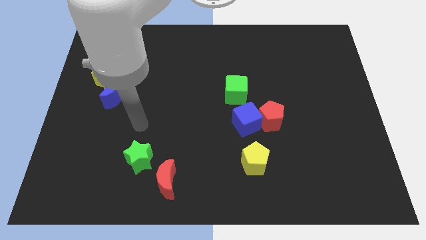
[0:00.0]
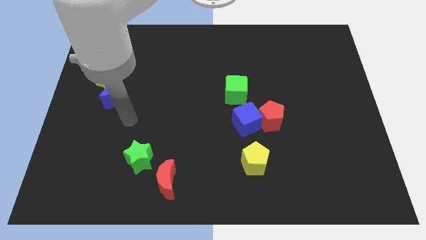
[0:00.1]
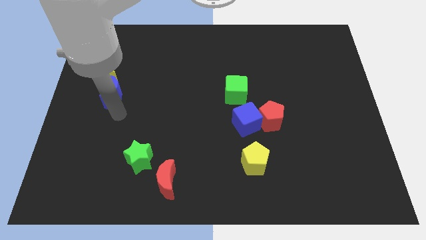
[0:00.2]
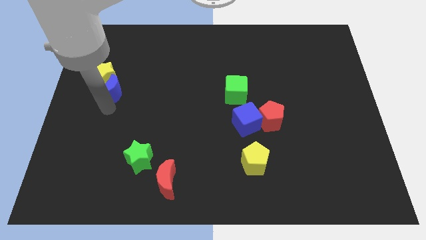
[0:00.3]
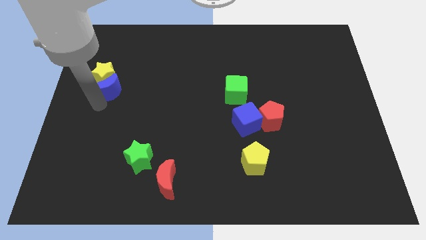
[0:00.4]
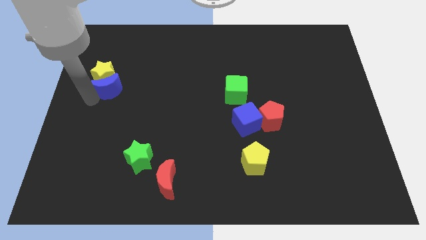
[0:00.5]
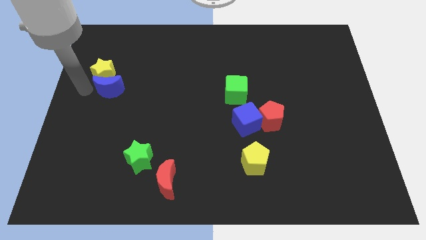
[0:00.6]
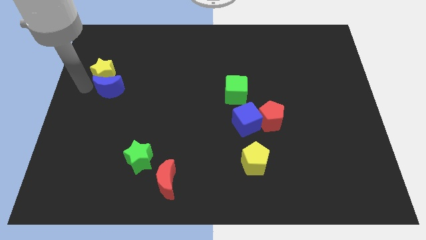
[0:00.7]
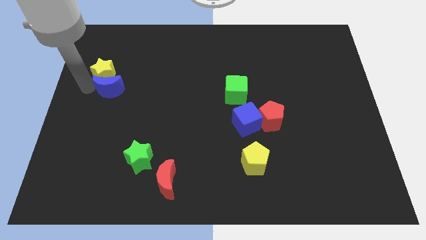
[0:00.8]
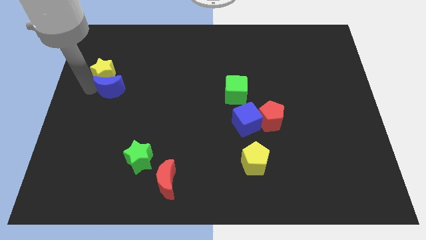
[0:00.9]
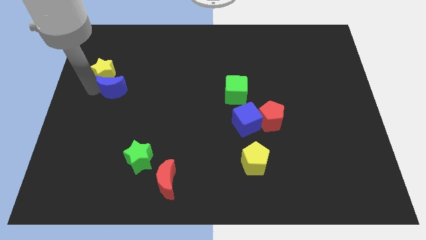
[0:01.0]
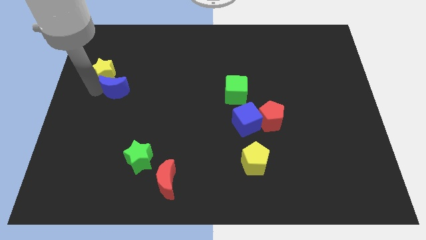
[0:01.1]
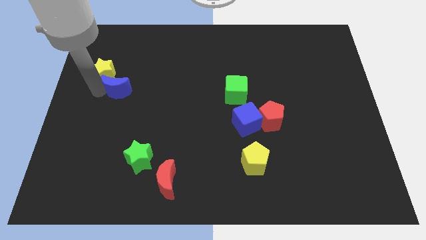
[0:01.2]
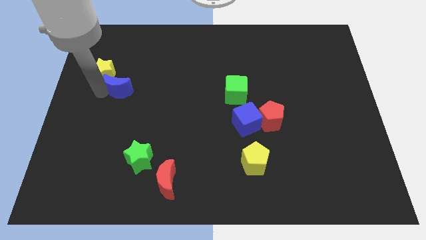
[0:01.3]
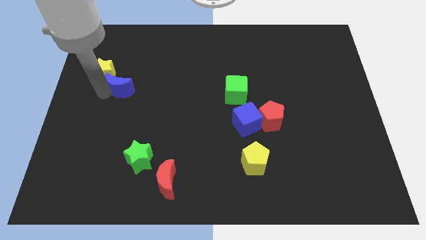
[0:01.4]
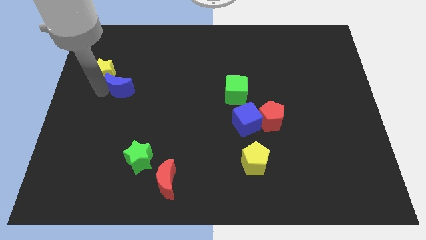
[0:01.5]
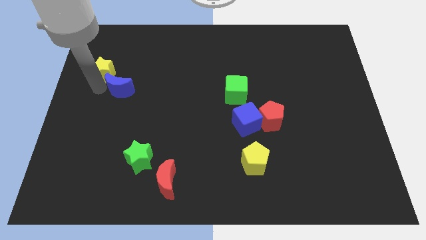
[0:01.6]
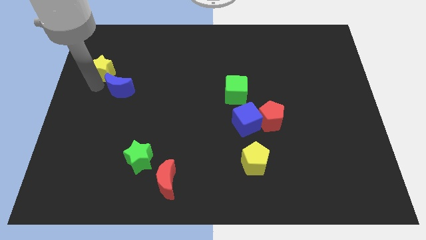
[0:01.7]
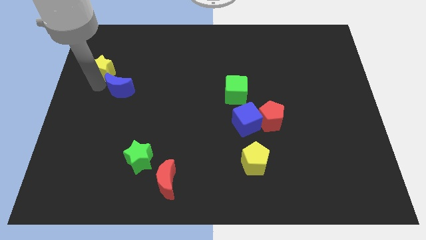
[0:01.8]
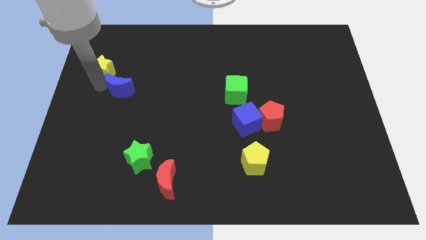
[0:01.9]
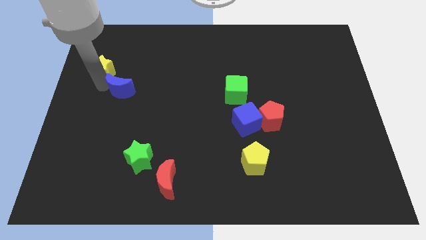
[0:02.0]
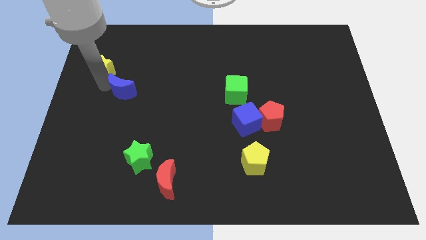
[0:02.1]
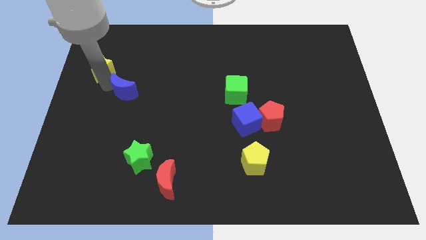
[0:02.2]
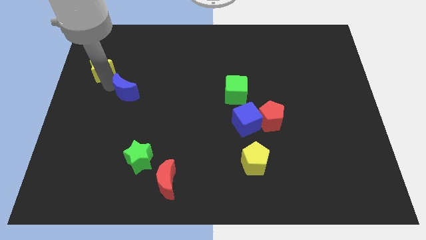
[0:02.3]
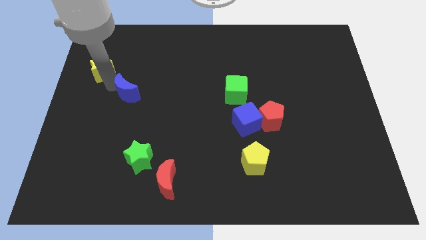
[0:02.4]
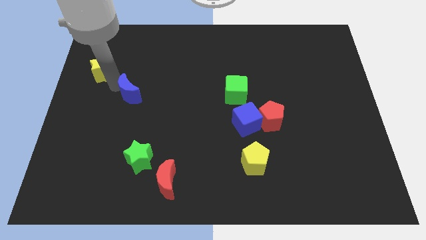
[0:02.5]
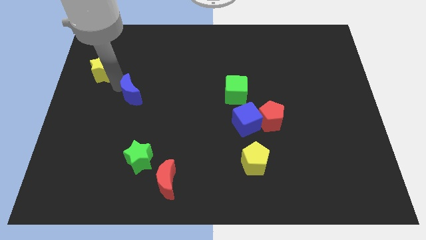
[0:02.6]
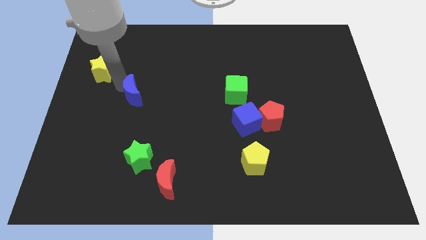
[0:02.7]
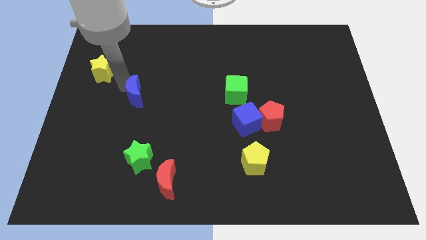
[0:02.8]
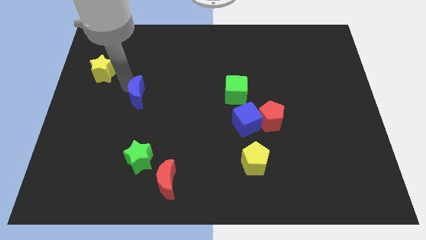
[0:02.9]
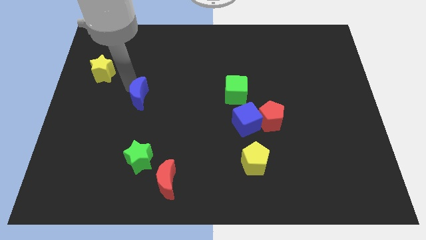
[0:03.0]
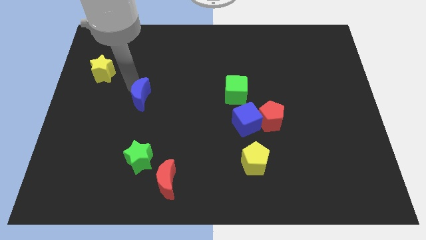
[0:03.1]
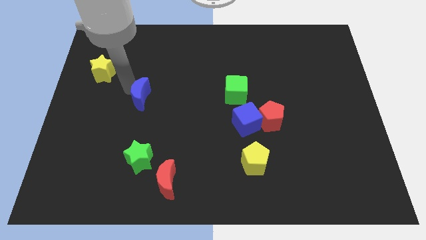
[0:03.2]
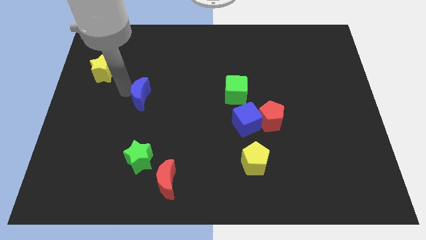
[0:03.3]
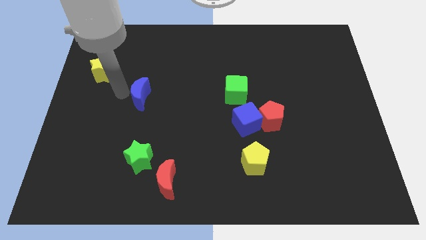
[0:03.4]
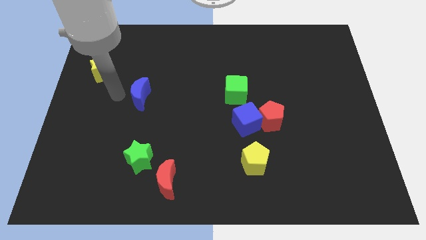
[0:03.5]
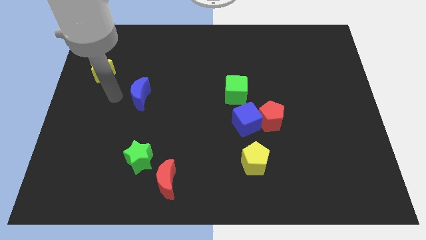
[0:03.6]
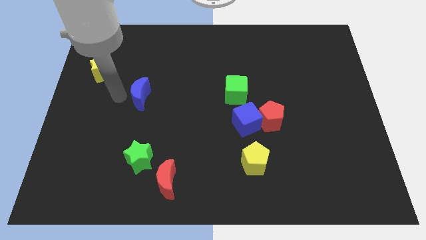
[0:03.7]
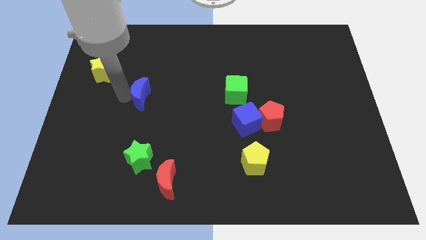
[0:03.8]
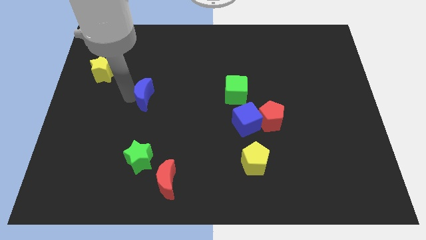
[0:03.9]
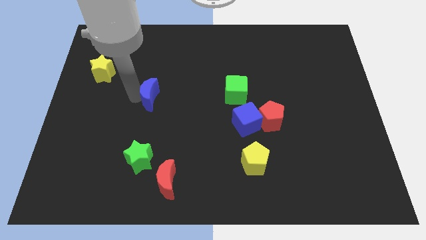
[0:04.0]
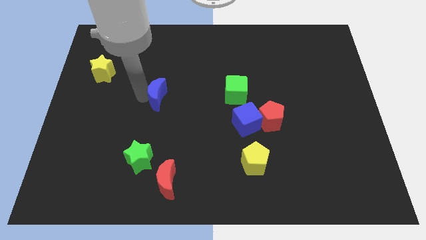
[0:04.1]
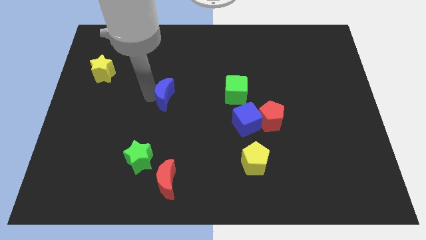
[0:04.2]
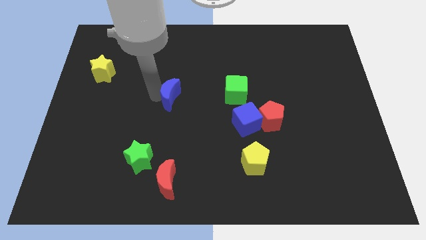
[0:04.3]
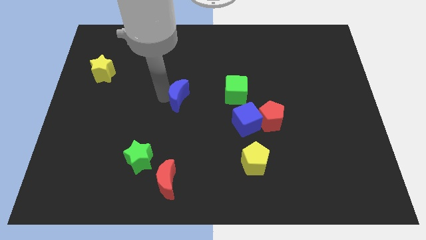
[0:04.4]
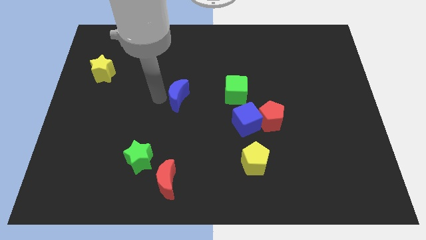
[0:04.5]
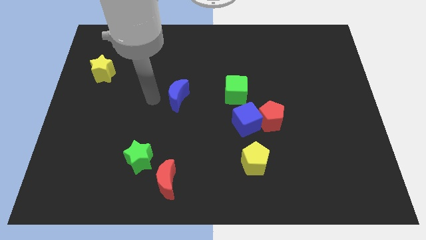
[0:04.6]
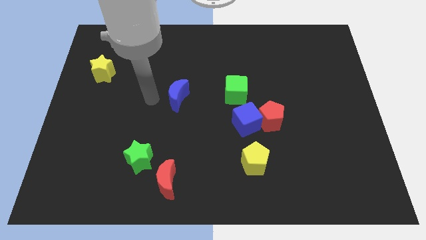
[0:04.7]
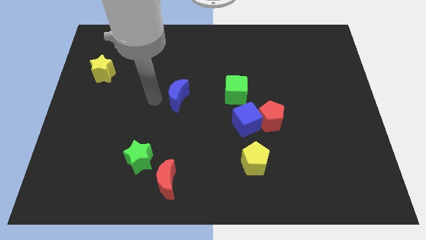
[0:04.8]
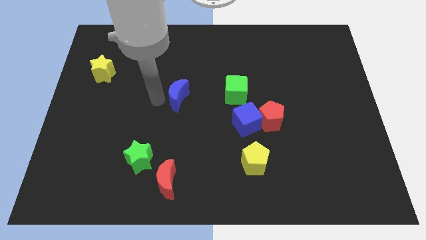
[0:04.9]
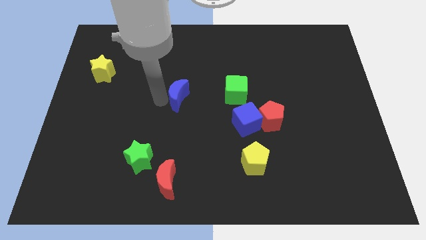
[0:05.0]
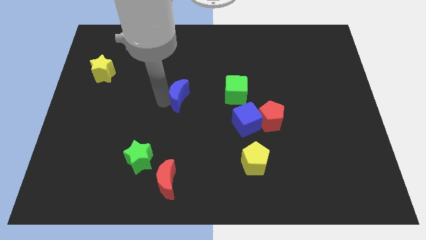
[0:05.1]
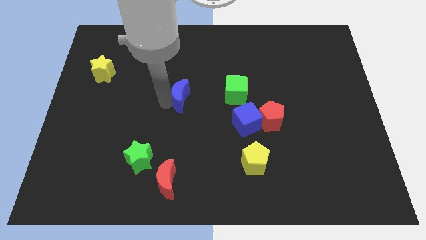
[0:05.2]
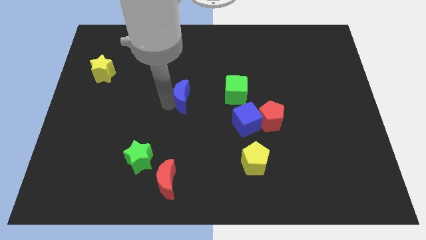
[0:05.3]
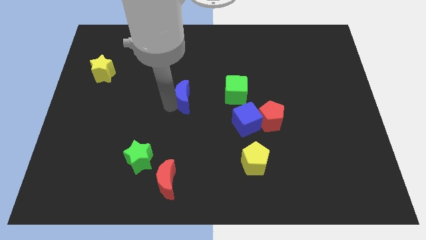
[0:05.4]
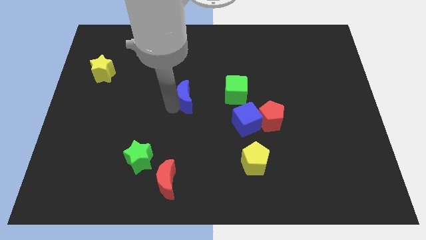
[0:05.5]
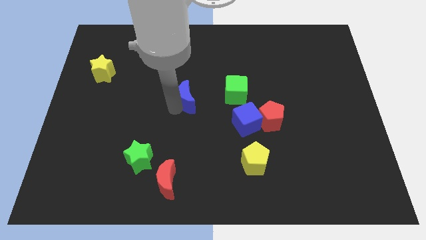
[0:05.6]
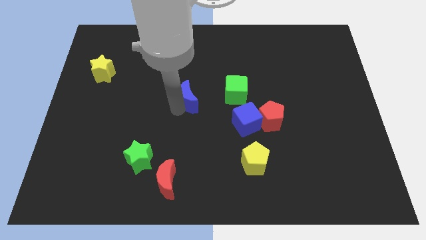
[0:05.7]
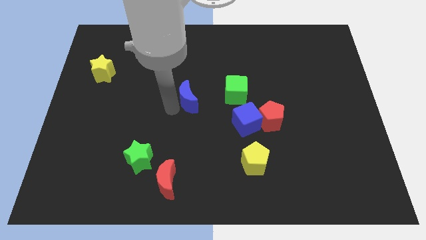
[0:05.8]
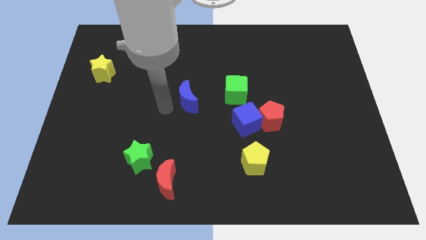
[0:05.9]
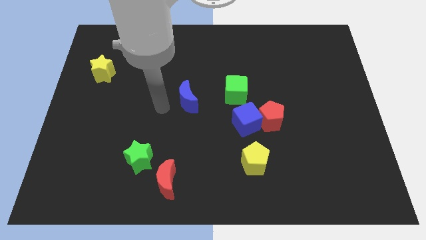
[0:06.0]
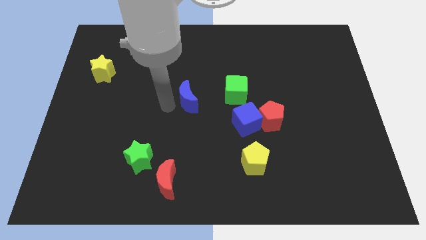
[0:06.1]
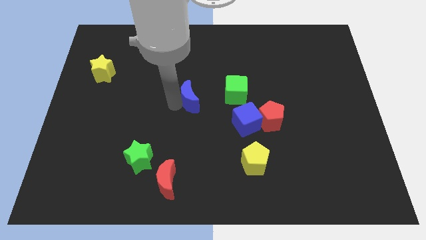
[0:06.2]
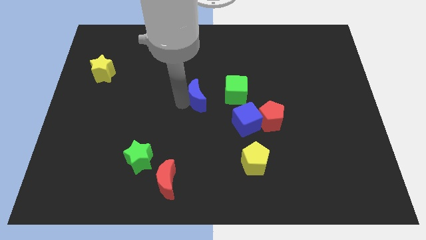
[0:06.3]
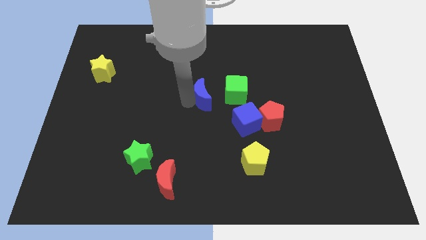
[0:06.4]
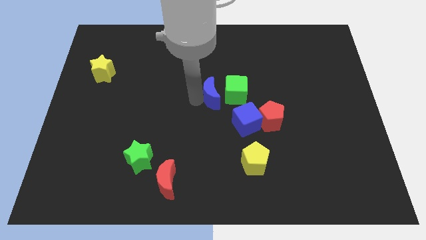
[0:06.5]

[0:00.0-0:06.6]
put the blue moon towards the green cube

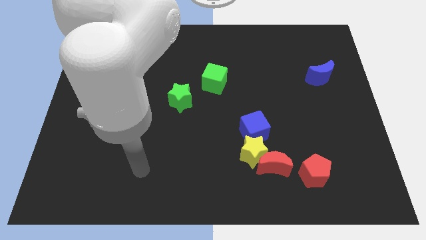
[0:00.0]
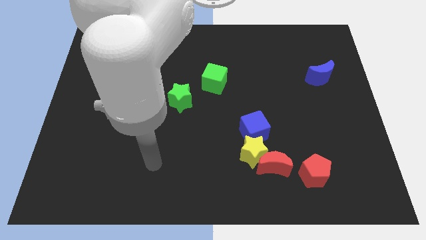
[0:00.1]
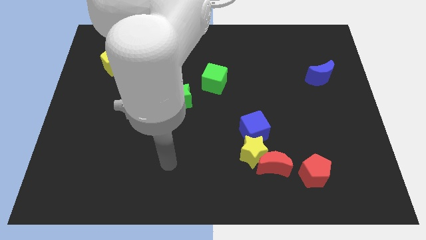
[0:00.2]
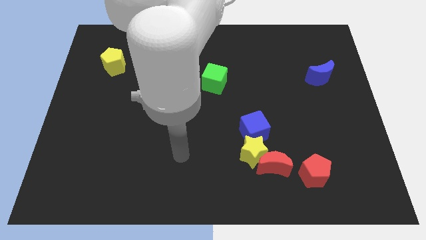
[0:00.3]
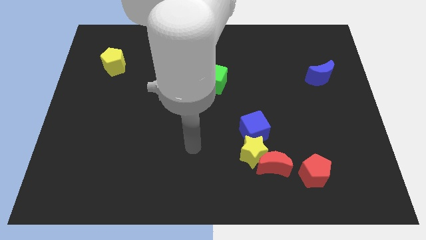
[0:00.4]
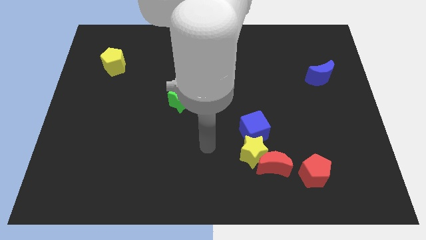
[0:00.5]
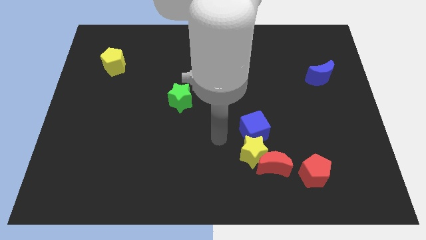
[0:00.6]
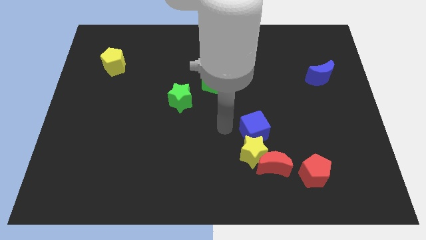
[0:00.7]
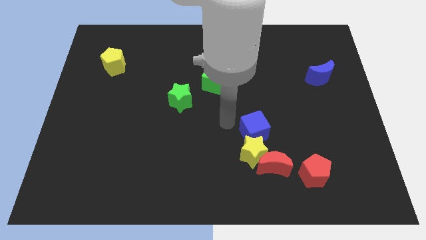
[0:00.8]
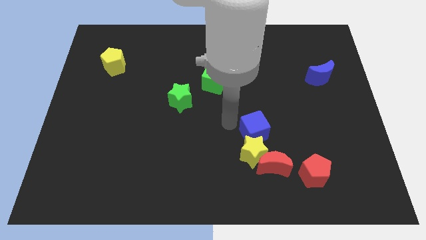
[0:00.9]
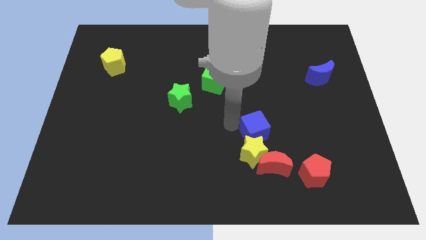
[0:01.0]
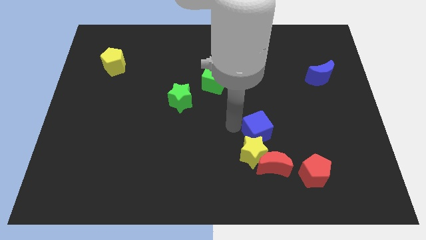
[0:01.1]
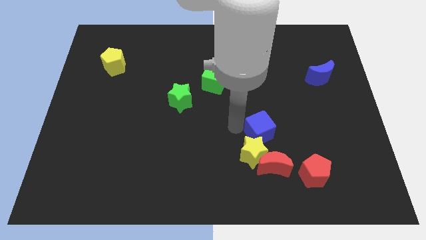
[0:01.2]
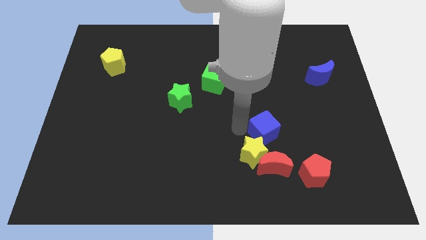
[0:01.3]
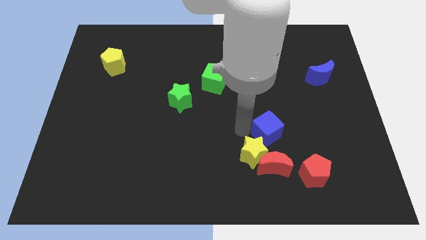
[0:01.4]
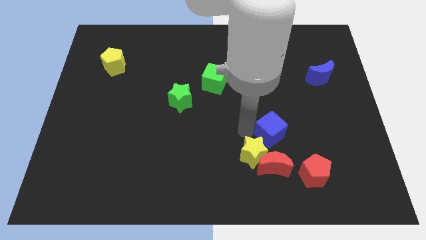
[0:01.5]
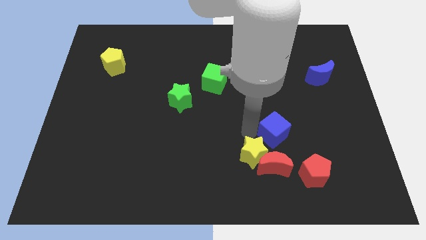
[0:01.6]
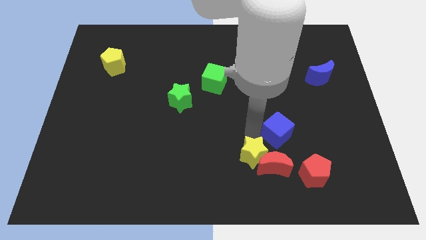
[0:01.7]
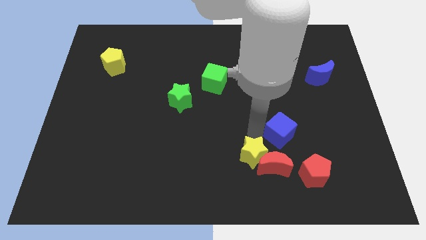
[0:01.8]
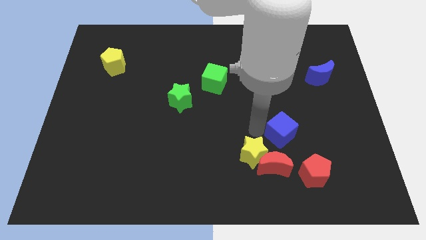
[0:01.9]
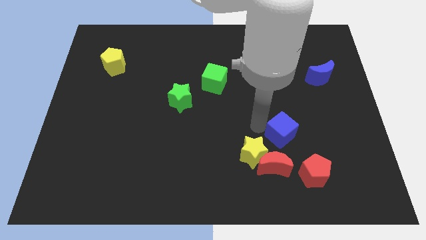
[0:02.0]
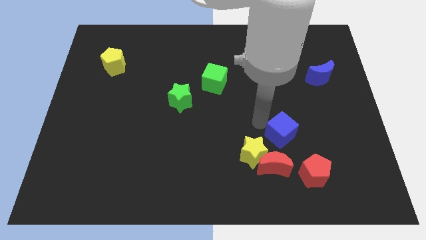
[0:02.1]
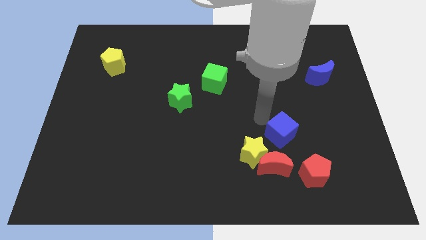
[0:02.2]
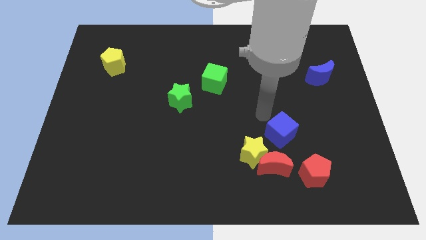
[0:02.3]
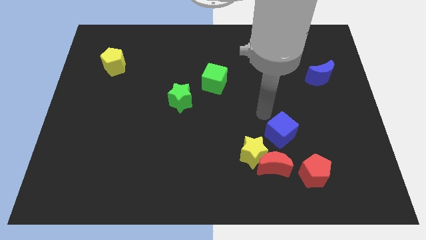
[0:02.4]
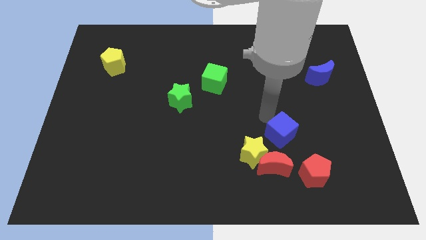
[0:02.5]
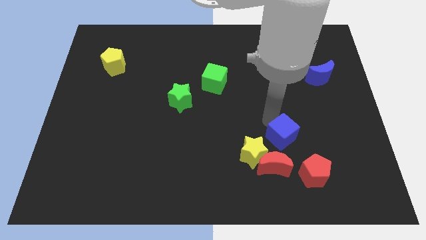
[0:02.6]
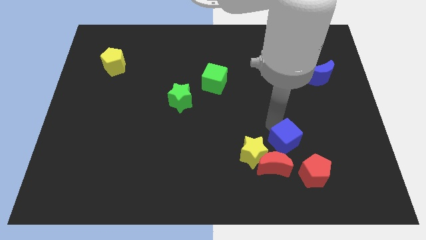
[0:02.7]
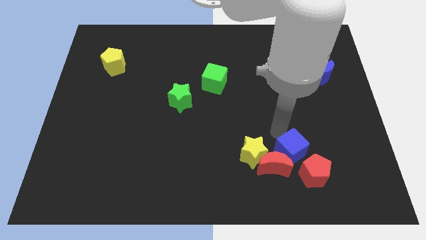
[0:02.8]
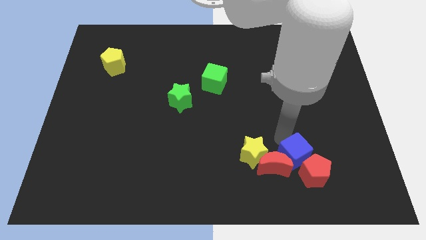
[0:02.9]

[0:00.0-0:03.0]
push the blue cube to the red pentagon
